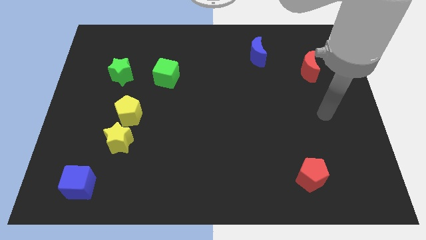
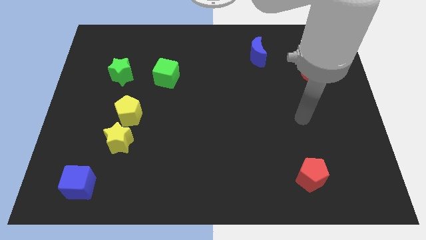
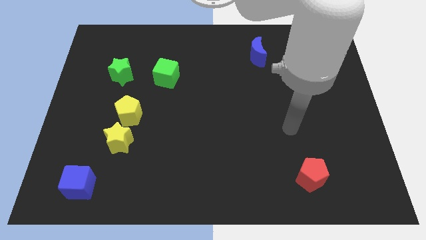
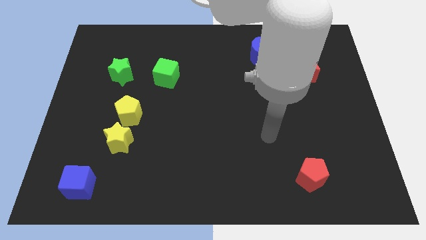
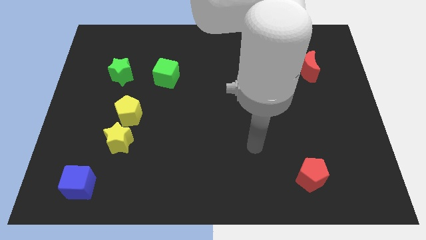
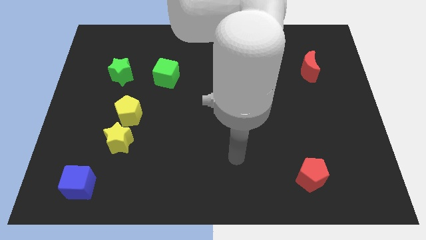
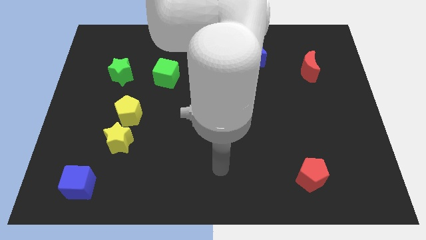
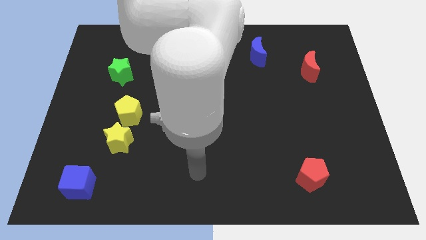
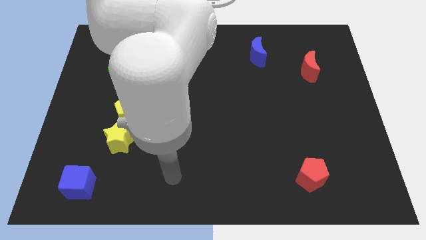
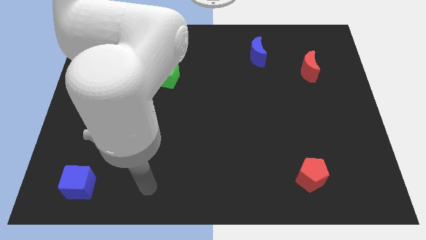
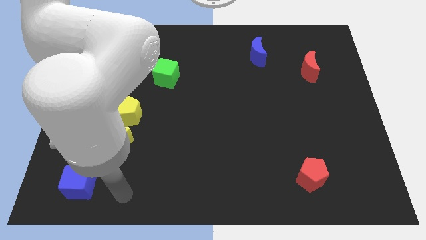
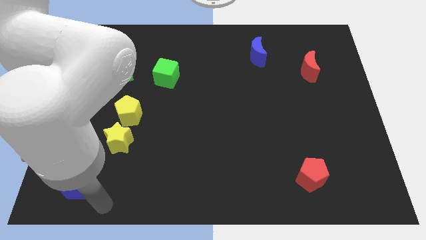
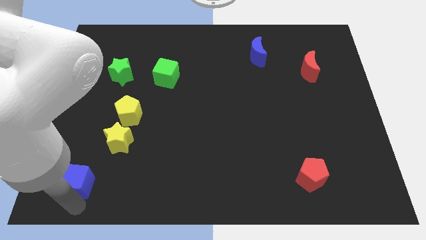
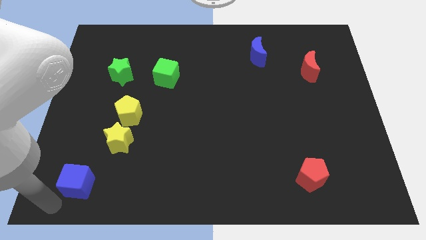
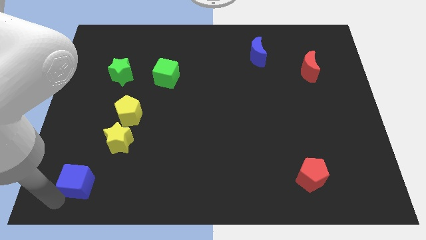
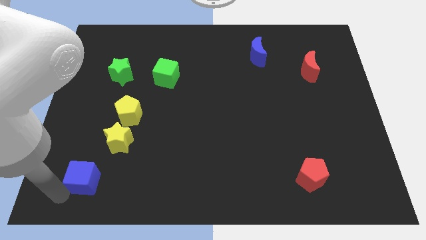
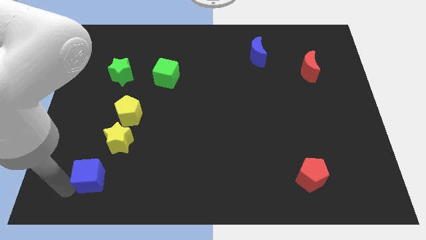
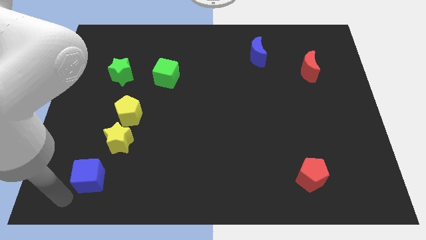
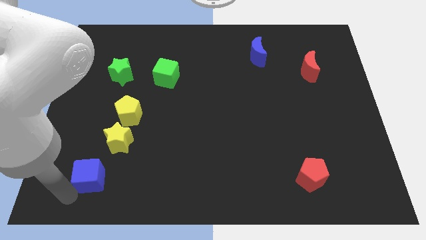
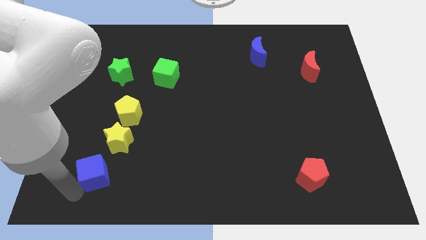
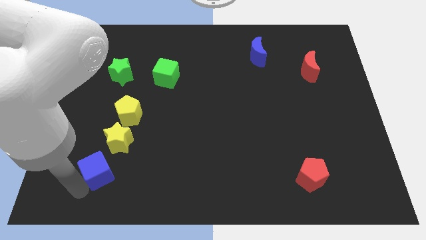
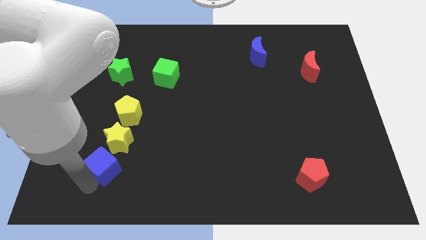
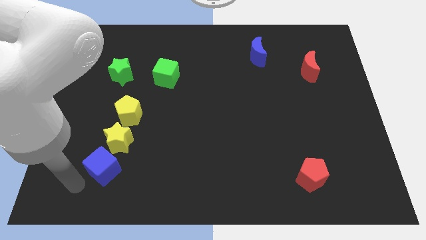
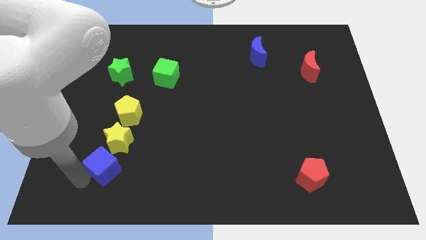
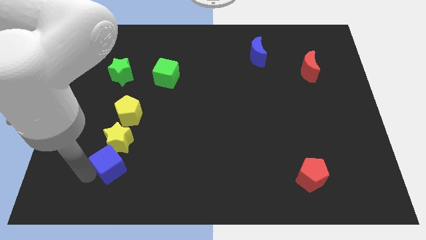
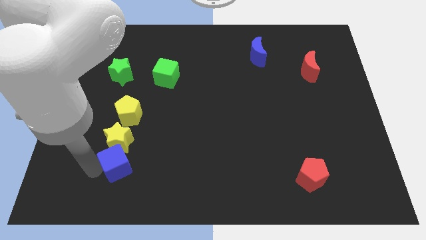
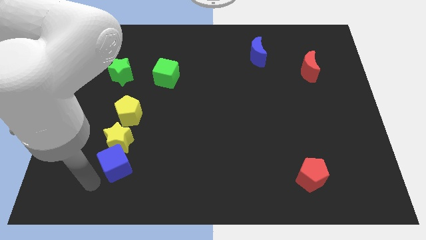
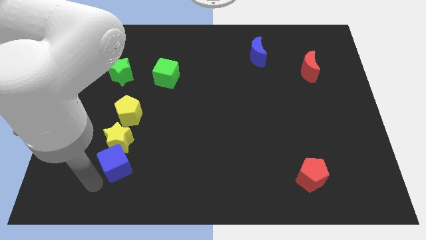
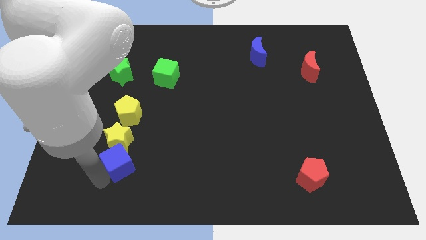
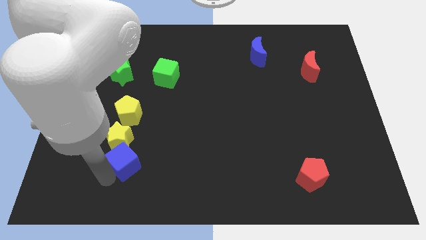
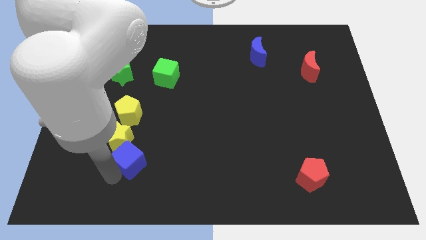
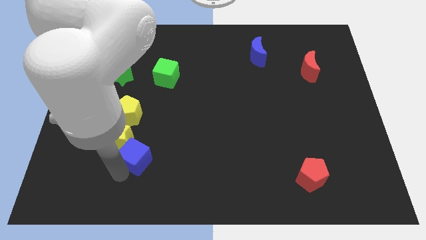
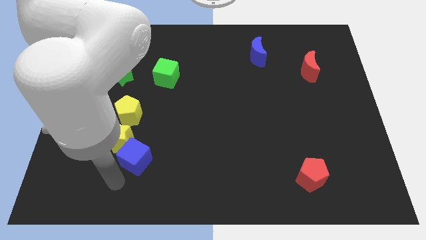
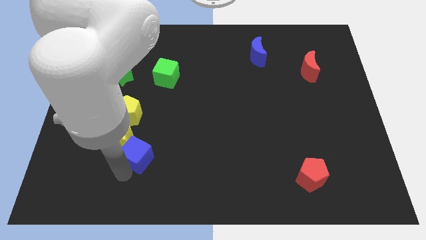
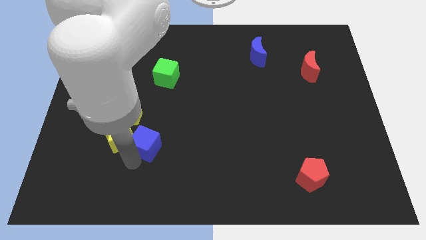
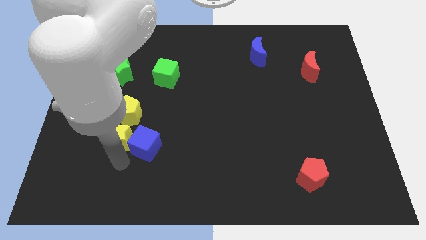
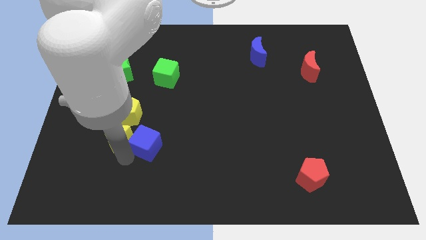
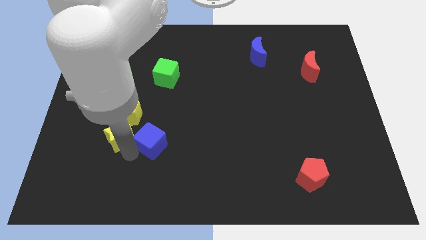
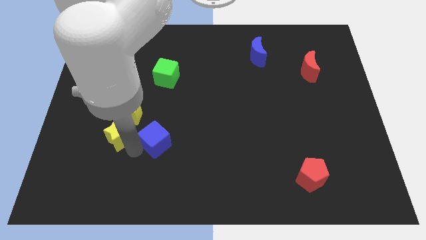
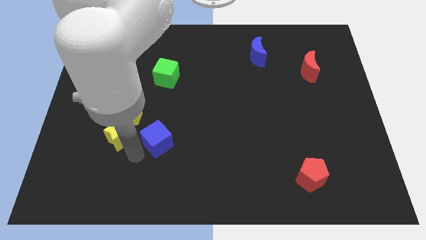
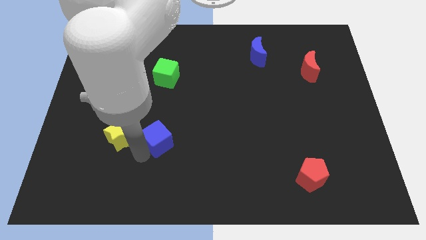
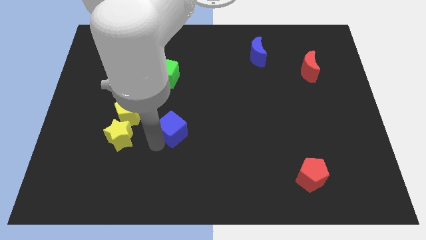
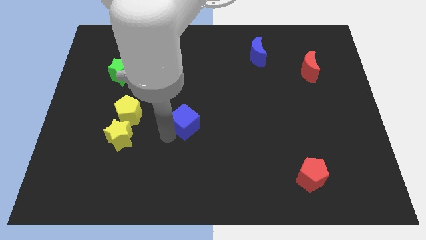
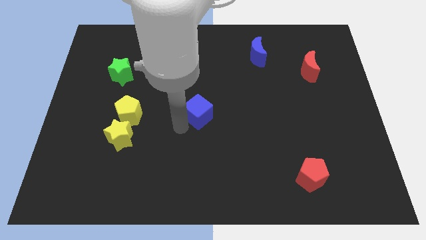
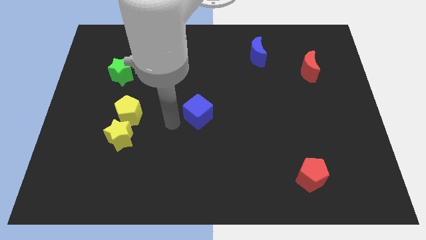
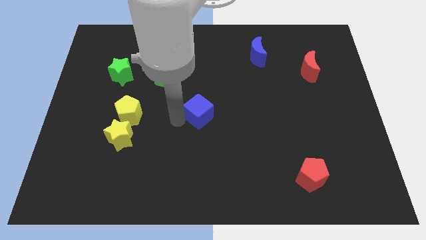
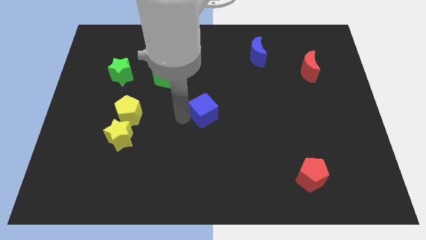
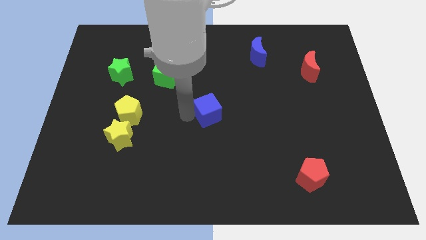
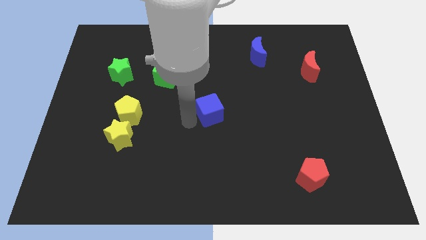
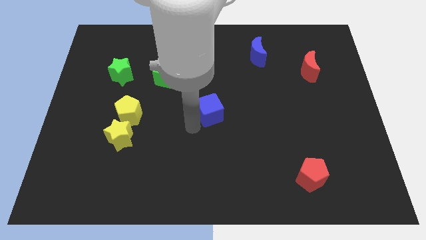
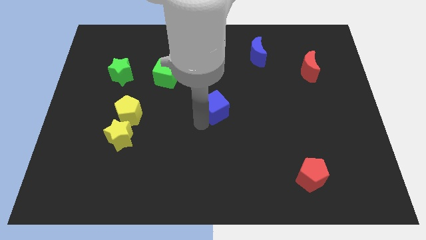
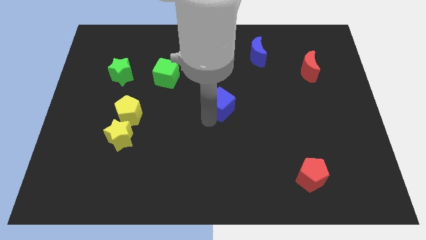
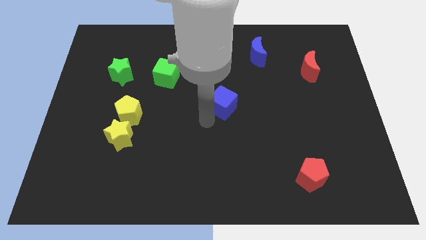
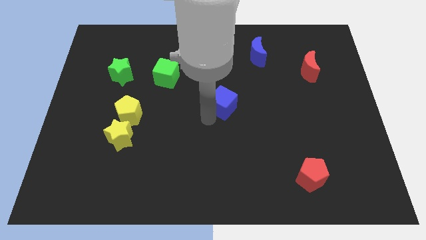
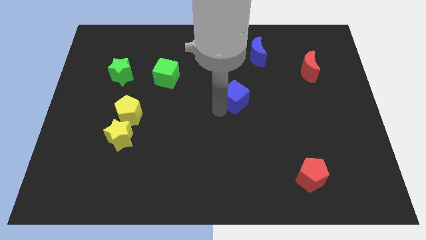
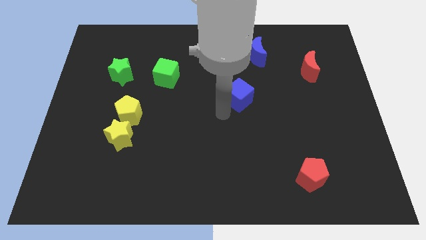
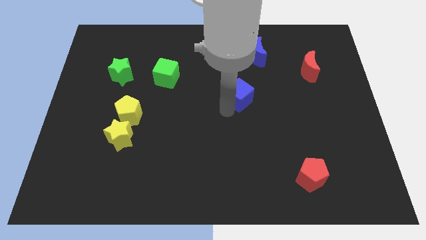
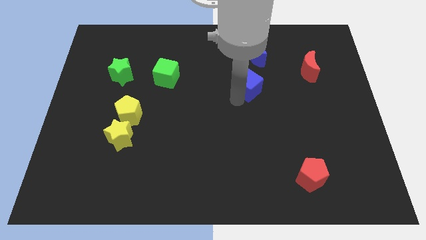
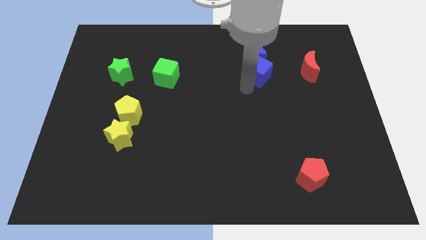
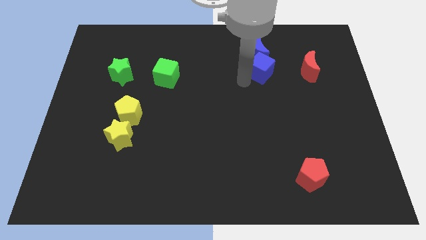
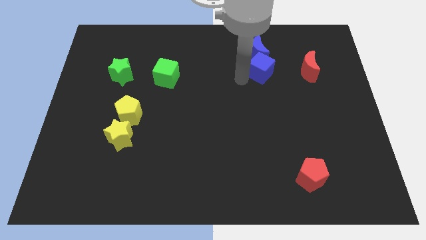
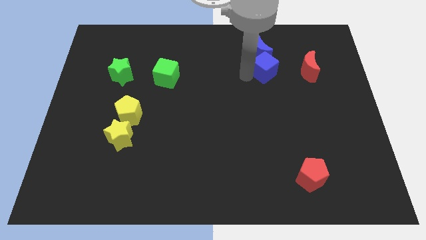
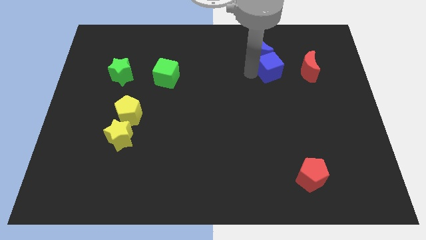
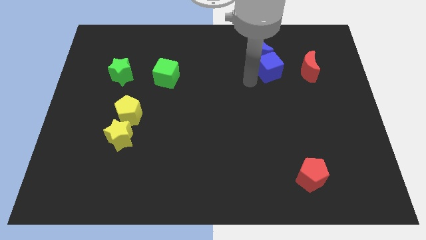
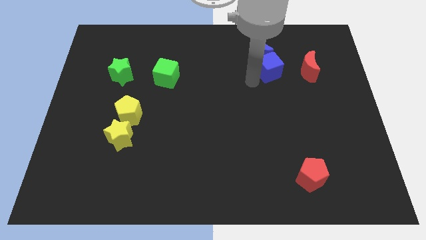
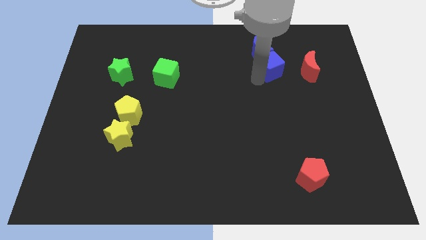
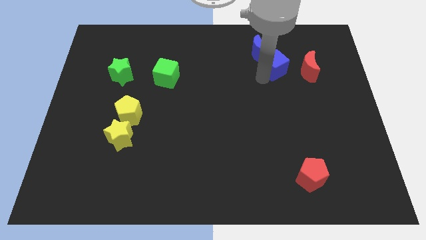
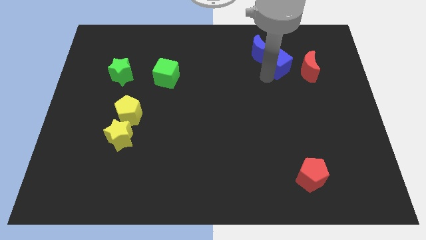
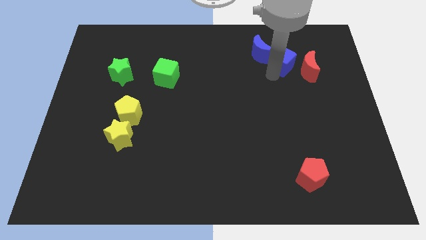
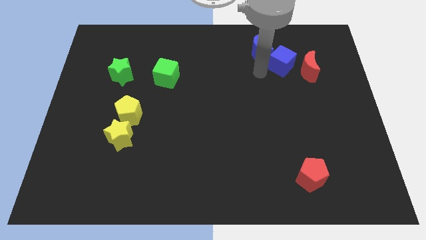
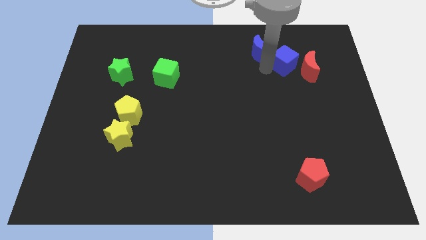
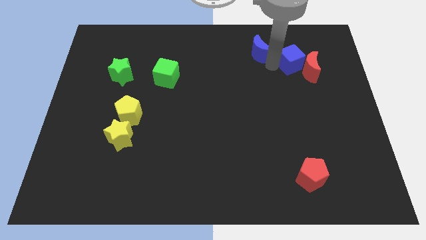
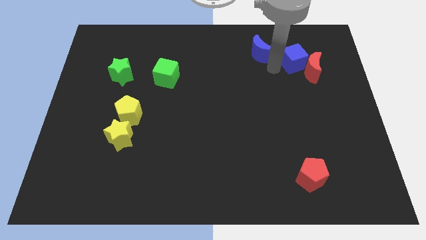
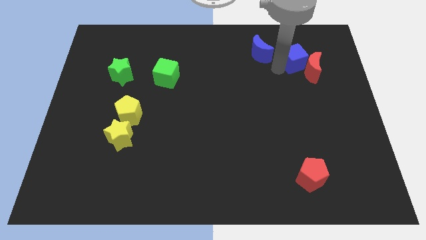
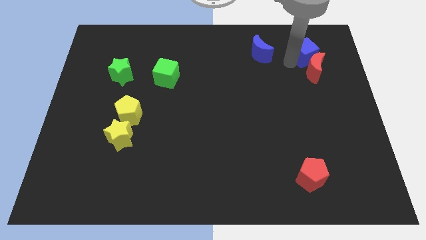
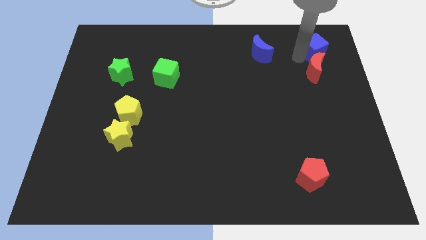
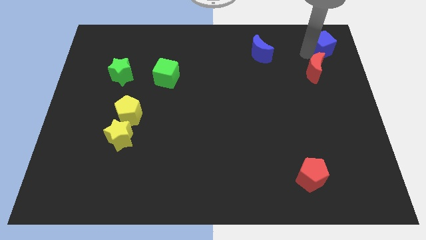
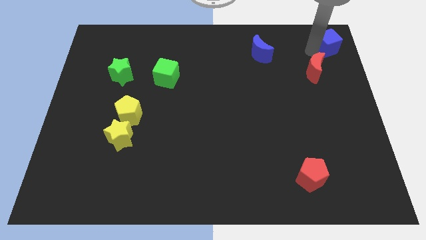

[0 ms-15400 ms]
slide the blue cube to the top right of the board
